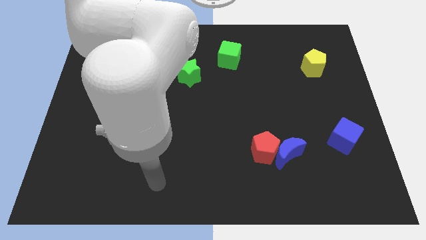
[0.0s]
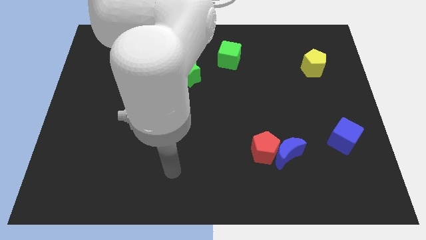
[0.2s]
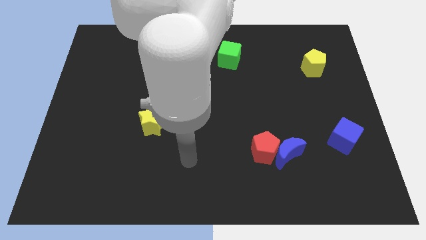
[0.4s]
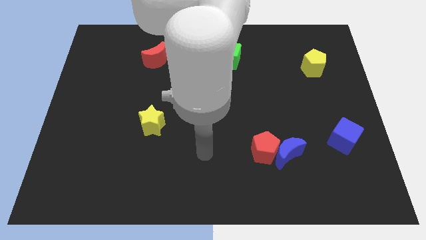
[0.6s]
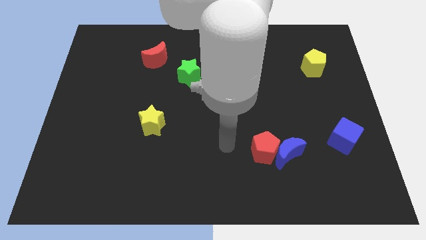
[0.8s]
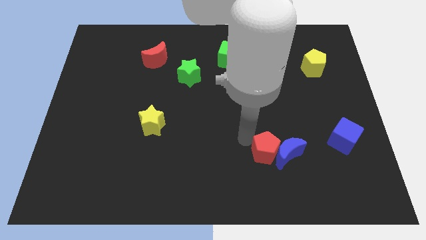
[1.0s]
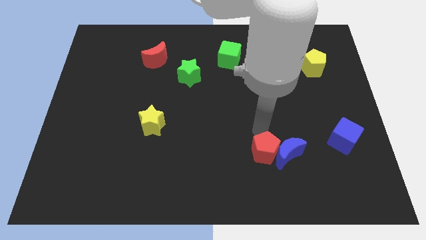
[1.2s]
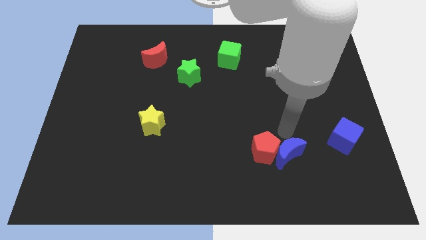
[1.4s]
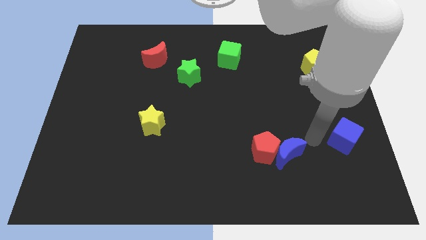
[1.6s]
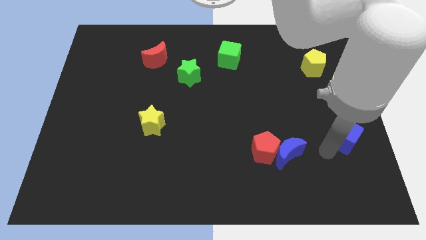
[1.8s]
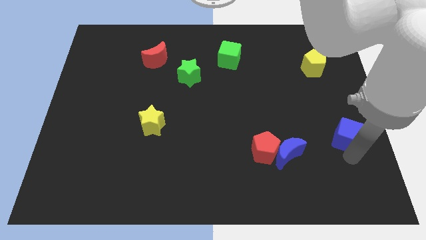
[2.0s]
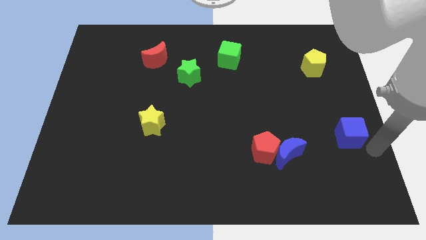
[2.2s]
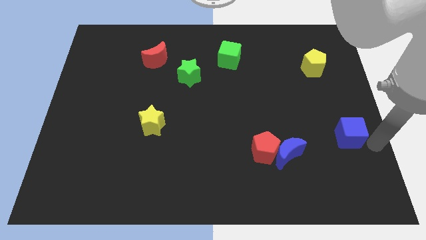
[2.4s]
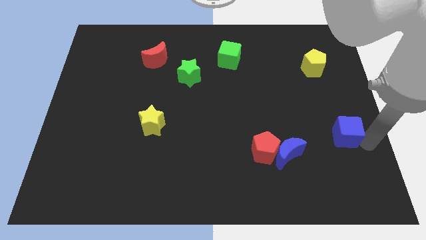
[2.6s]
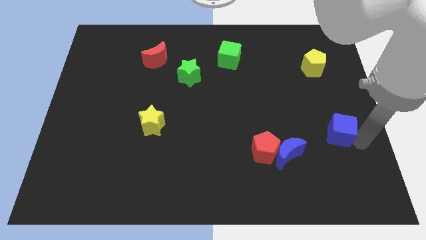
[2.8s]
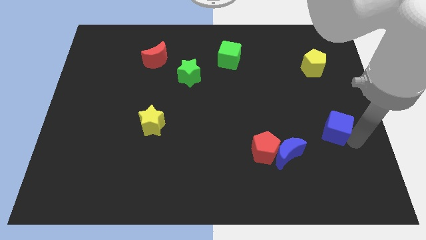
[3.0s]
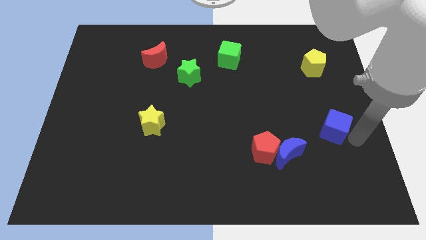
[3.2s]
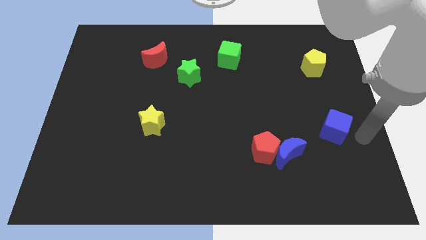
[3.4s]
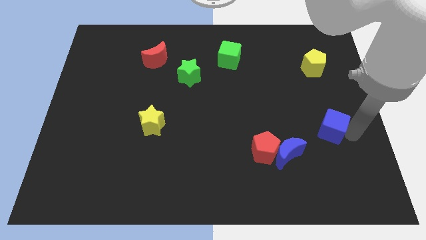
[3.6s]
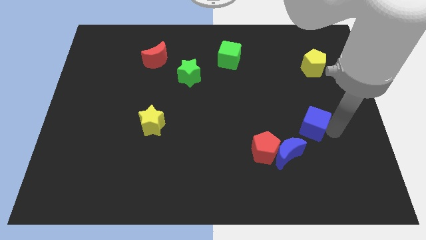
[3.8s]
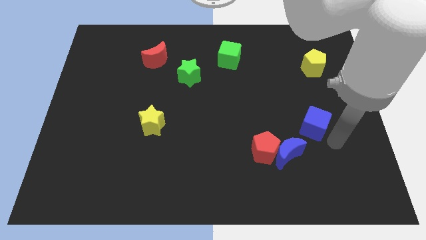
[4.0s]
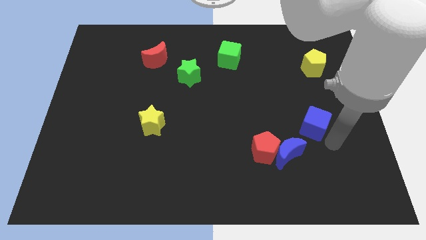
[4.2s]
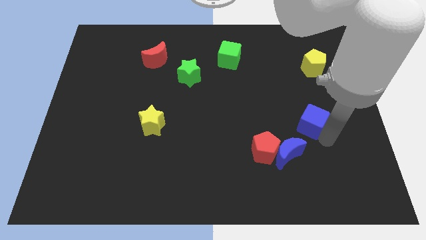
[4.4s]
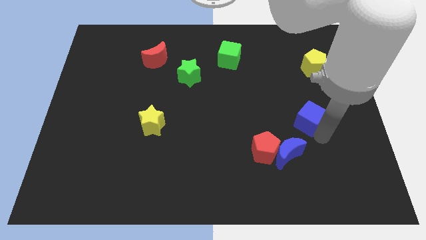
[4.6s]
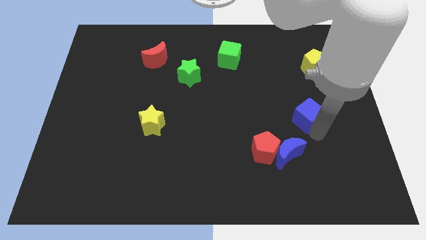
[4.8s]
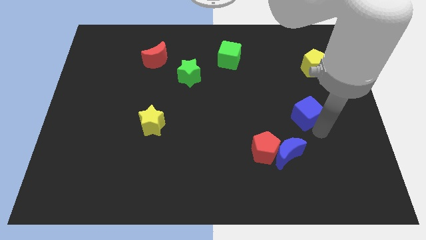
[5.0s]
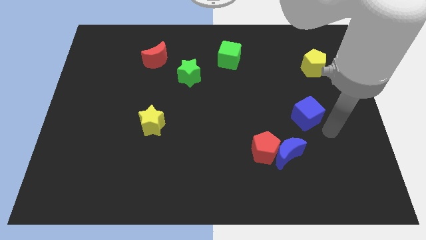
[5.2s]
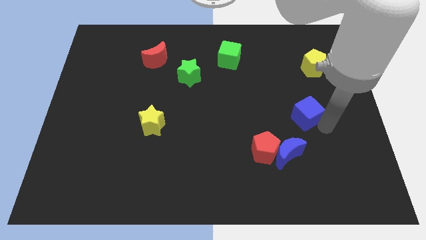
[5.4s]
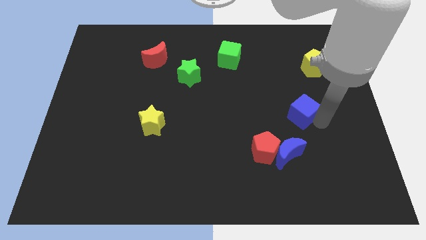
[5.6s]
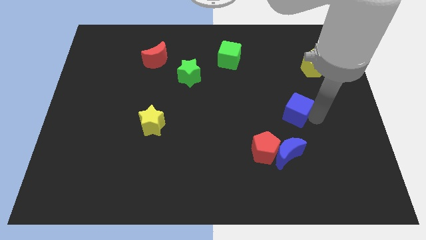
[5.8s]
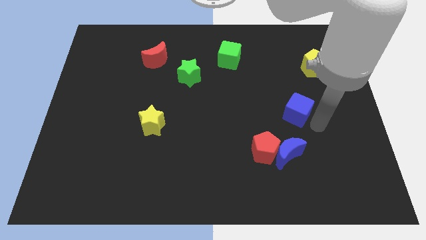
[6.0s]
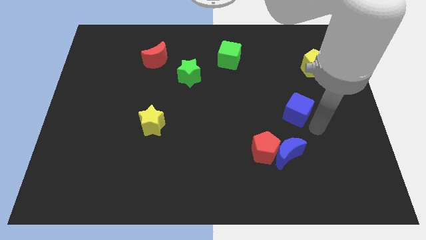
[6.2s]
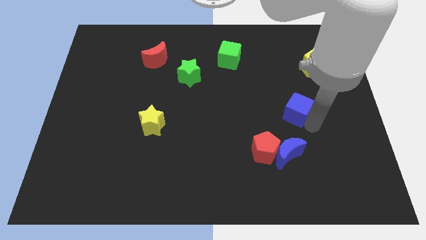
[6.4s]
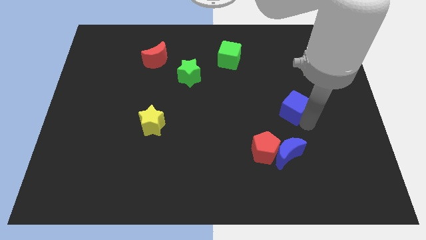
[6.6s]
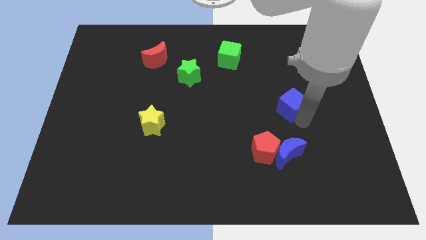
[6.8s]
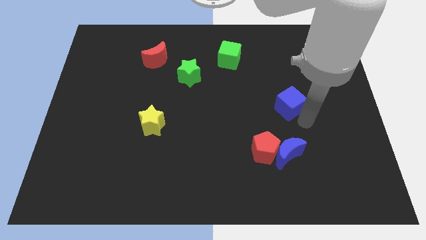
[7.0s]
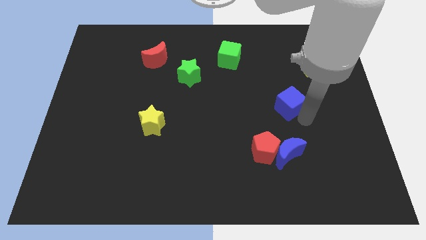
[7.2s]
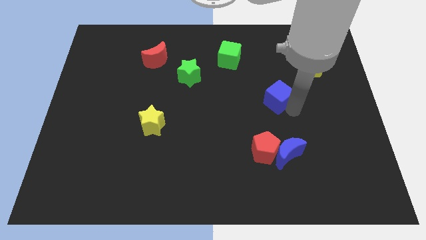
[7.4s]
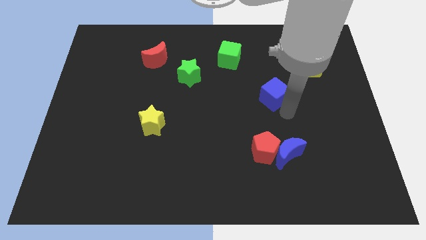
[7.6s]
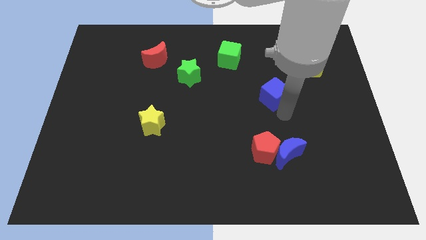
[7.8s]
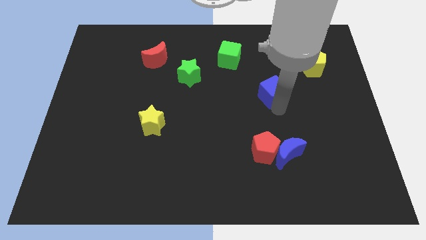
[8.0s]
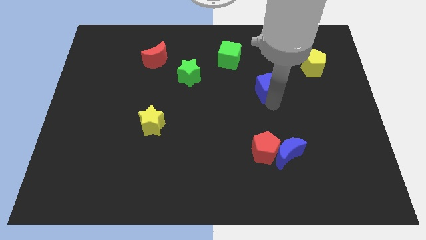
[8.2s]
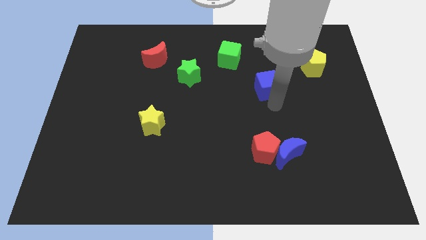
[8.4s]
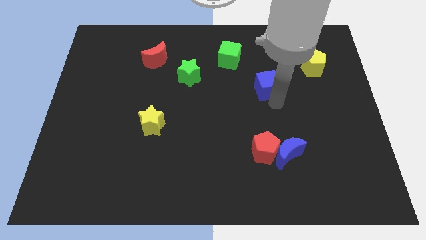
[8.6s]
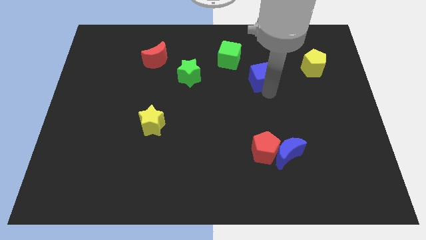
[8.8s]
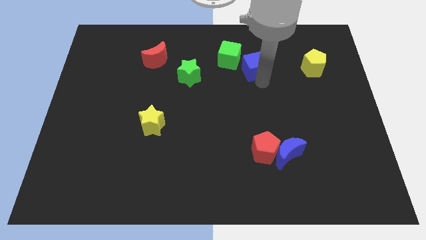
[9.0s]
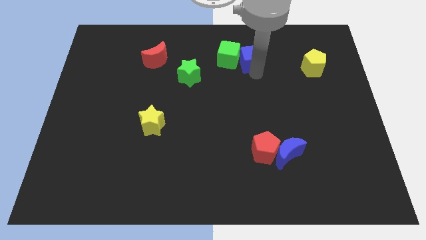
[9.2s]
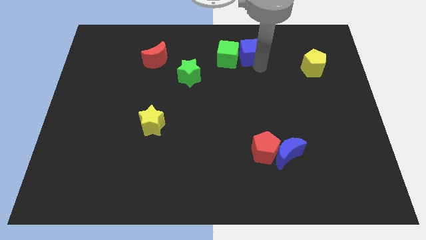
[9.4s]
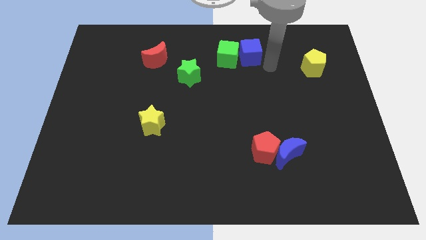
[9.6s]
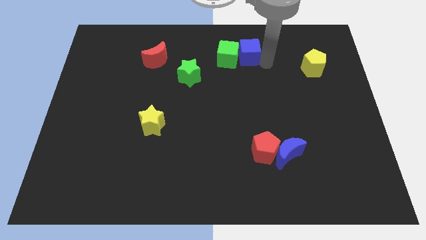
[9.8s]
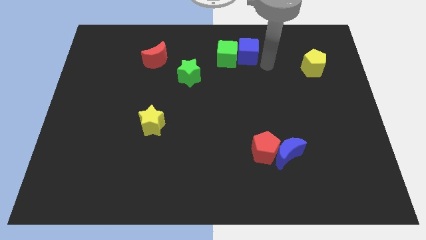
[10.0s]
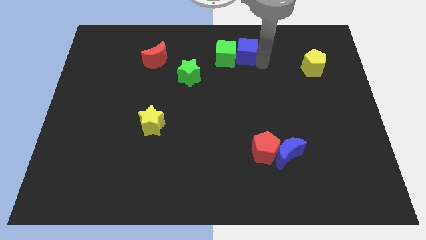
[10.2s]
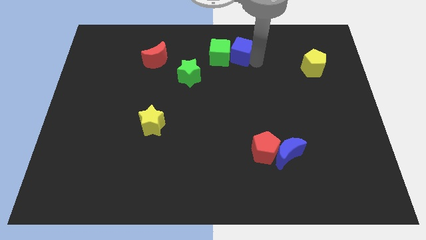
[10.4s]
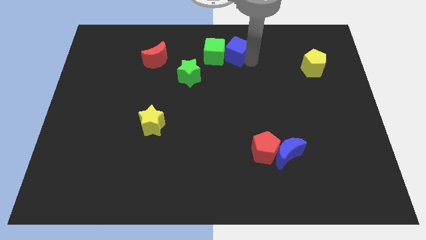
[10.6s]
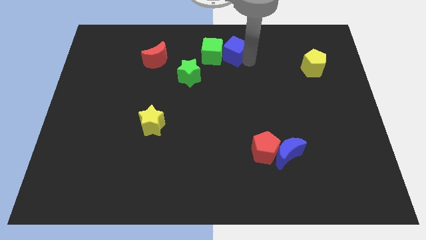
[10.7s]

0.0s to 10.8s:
move the blue cube to the towards your base
